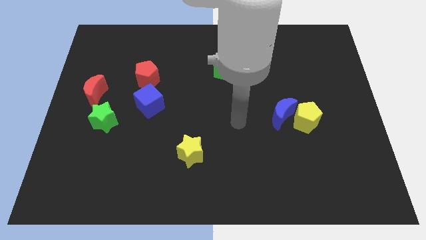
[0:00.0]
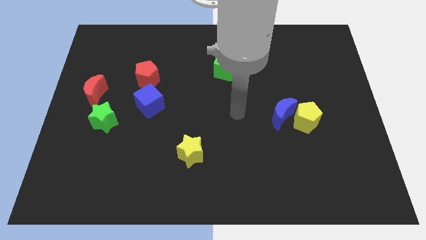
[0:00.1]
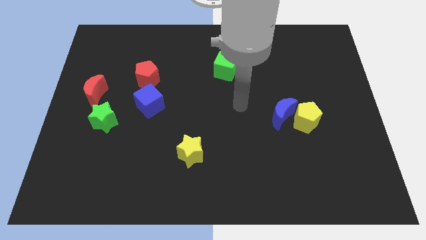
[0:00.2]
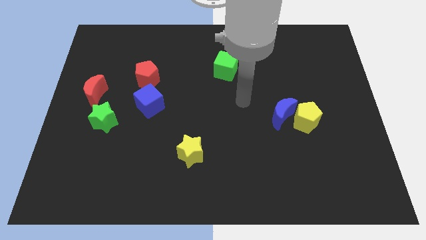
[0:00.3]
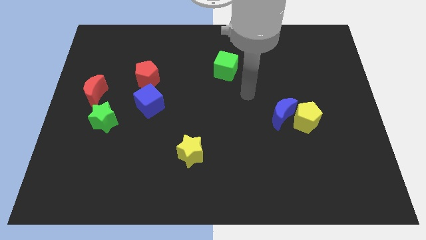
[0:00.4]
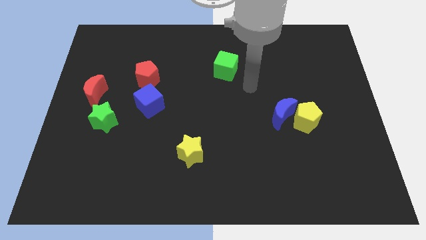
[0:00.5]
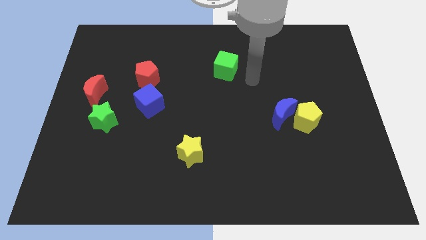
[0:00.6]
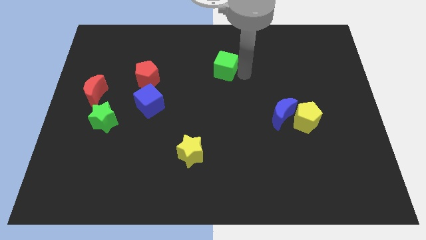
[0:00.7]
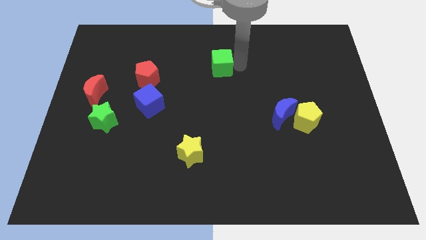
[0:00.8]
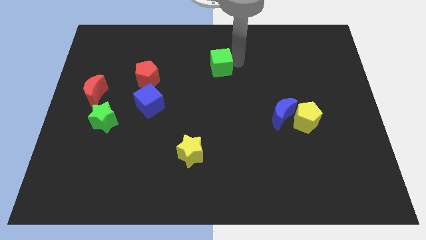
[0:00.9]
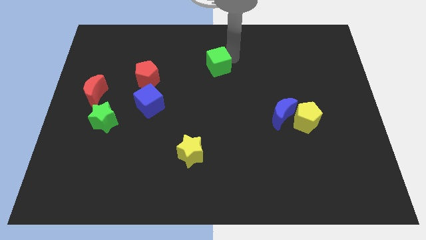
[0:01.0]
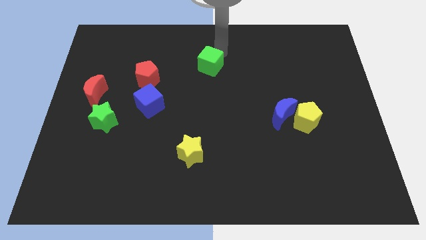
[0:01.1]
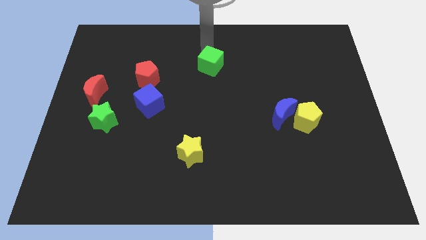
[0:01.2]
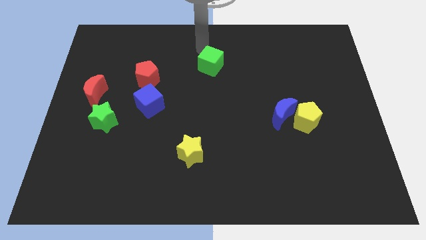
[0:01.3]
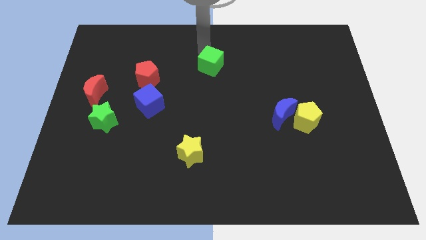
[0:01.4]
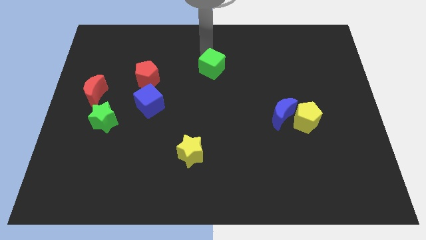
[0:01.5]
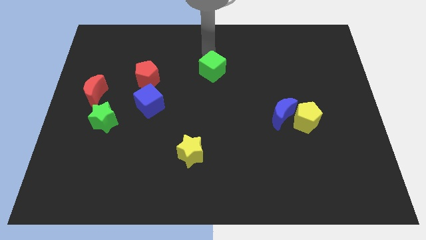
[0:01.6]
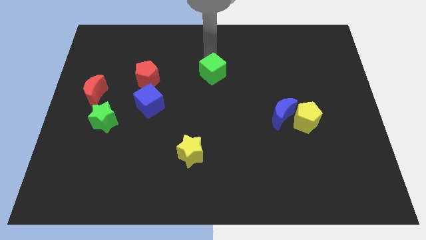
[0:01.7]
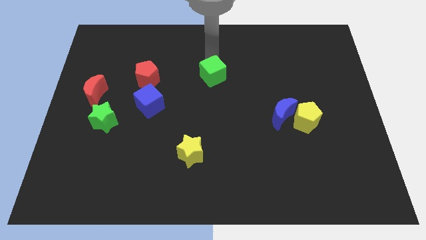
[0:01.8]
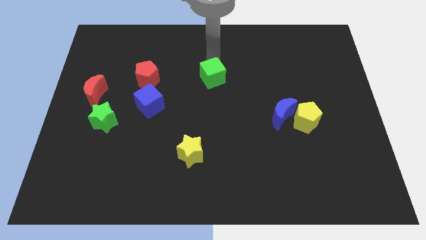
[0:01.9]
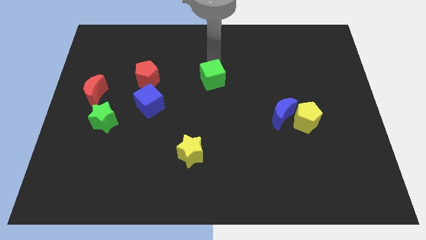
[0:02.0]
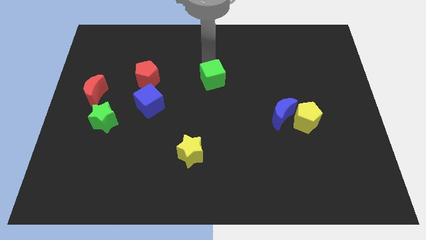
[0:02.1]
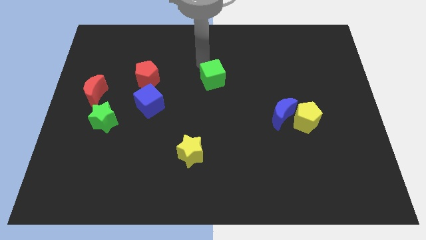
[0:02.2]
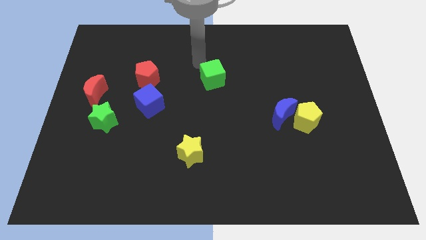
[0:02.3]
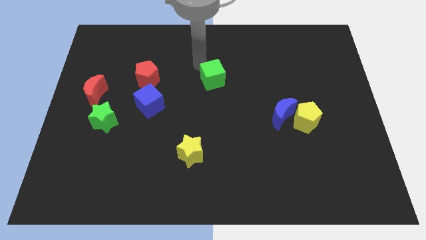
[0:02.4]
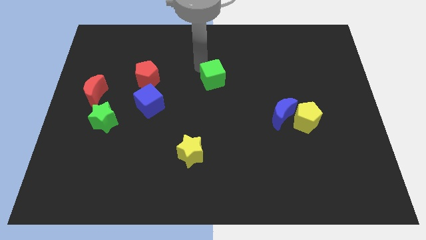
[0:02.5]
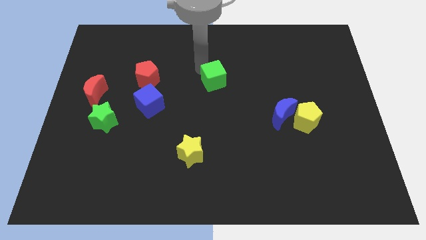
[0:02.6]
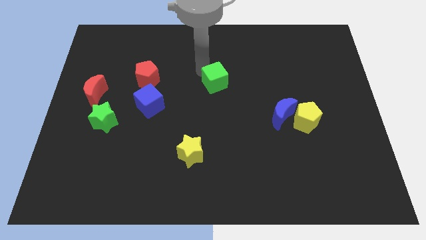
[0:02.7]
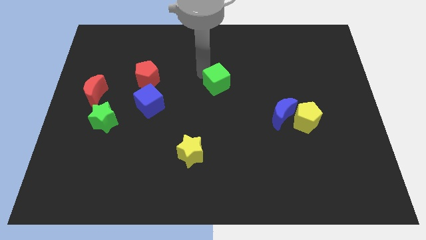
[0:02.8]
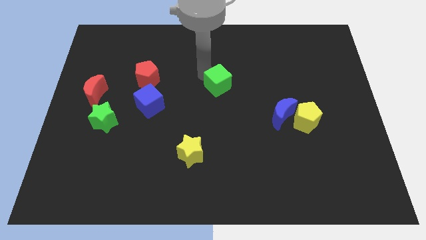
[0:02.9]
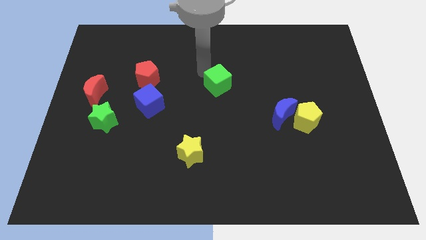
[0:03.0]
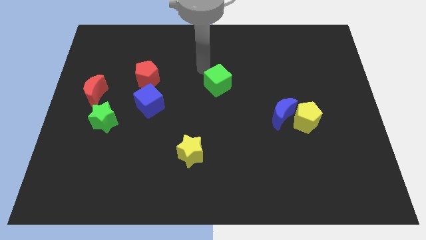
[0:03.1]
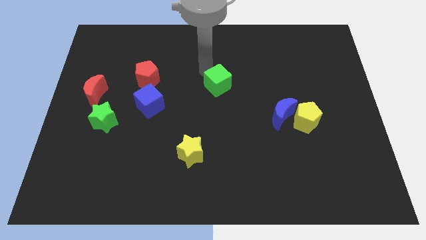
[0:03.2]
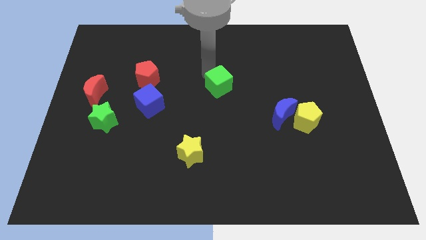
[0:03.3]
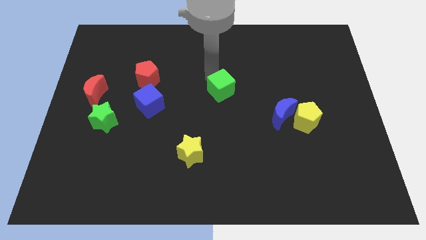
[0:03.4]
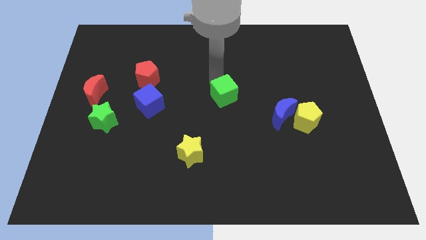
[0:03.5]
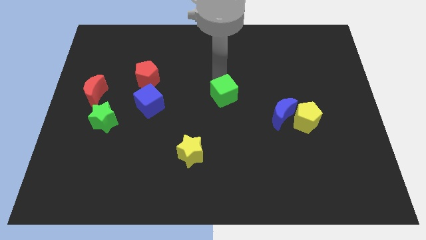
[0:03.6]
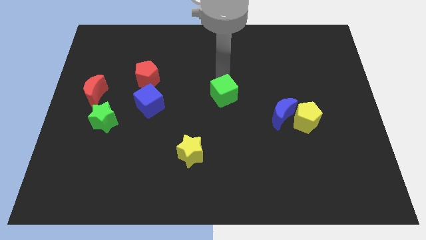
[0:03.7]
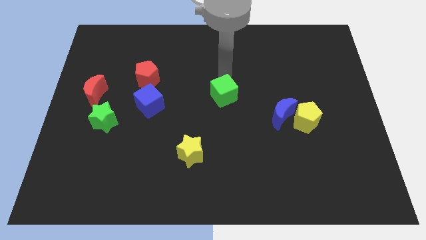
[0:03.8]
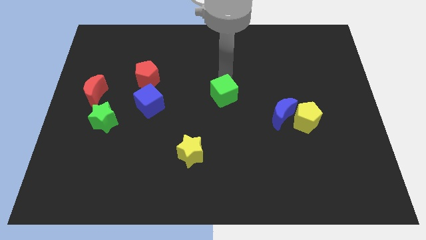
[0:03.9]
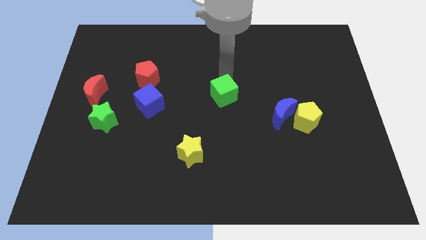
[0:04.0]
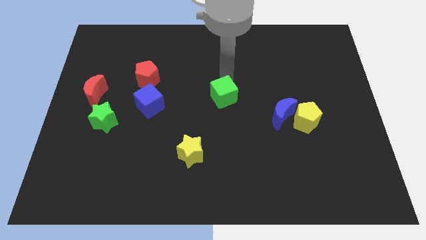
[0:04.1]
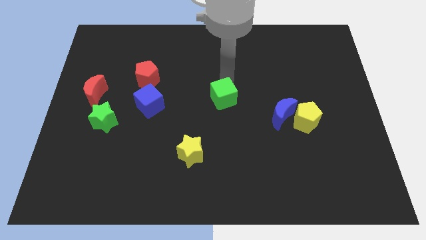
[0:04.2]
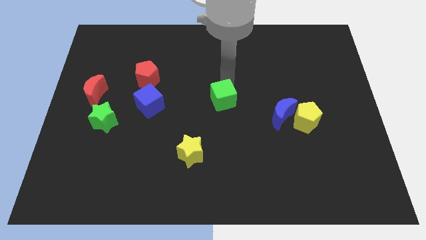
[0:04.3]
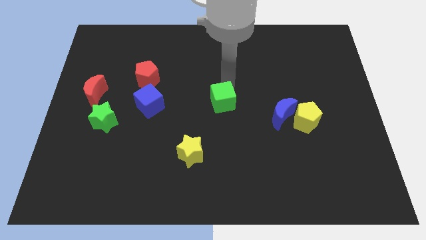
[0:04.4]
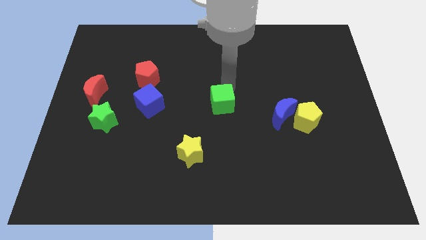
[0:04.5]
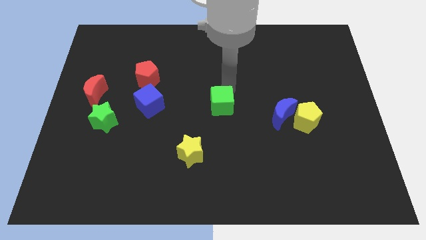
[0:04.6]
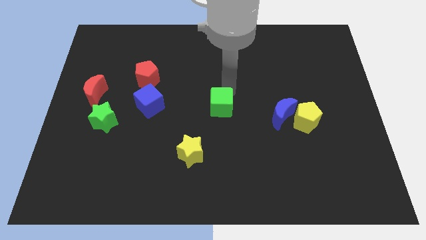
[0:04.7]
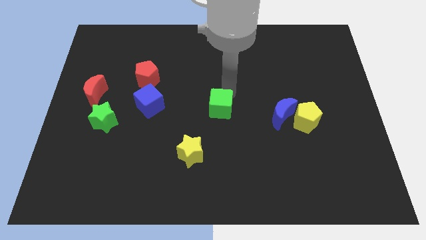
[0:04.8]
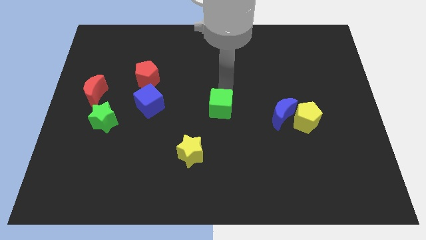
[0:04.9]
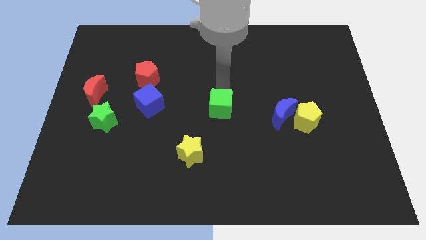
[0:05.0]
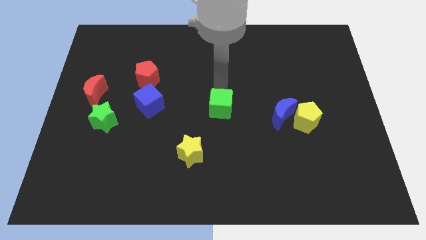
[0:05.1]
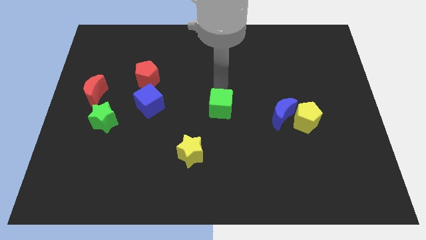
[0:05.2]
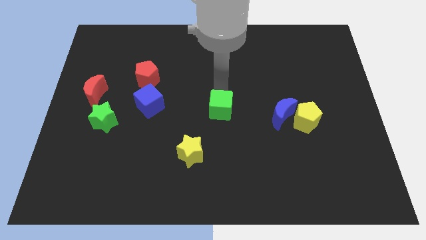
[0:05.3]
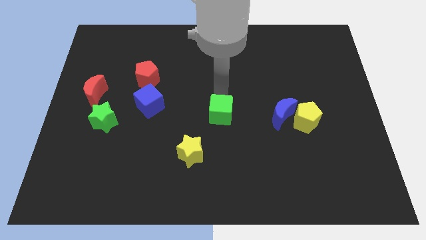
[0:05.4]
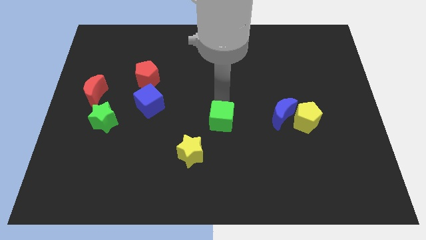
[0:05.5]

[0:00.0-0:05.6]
slide the green cube to the top right of the yellow star
